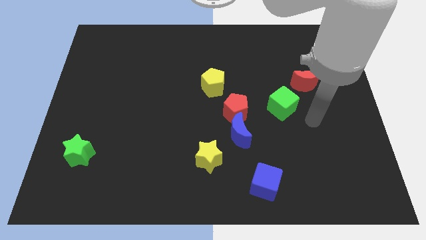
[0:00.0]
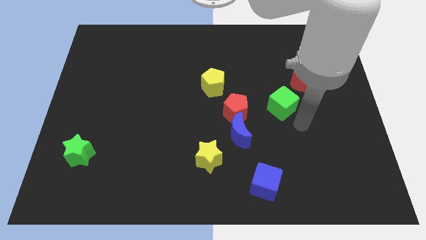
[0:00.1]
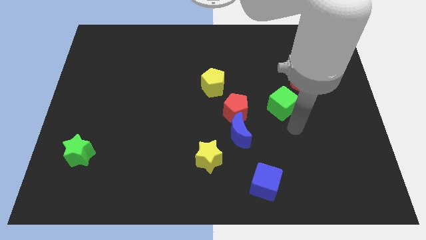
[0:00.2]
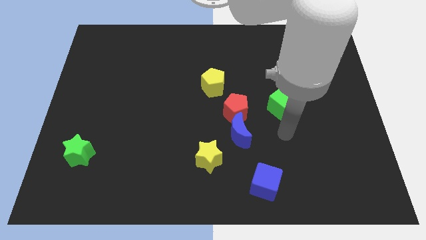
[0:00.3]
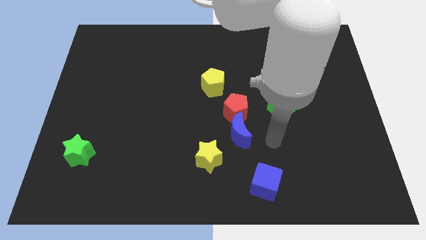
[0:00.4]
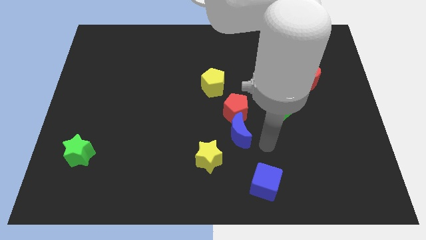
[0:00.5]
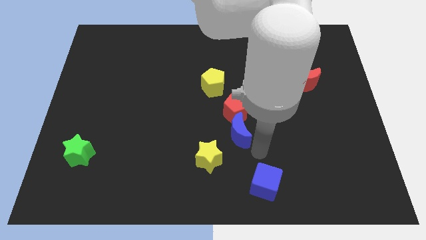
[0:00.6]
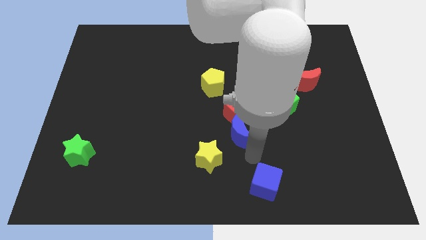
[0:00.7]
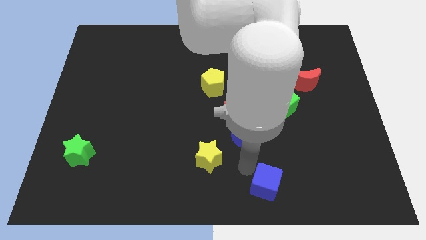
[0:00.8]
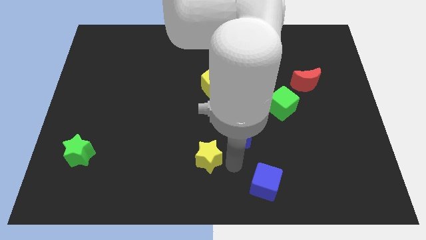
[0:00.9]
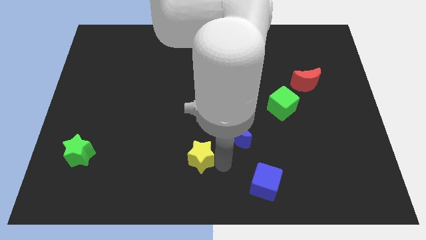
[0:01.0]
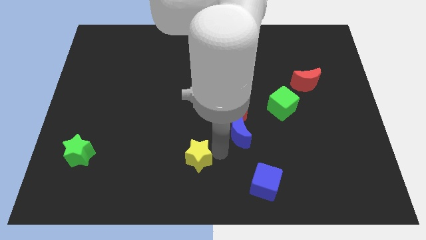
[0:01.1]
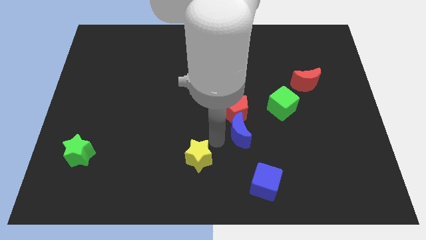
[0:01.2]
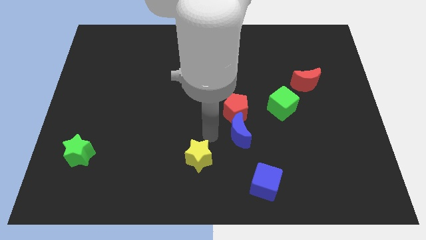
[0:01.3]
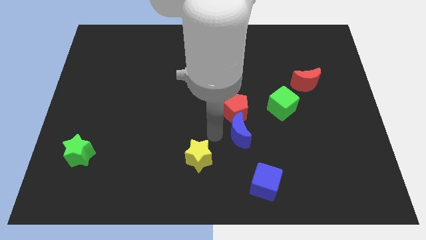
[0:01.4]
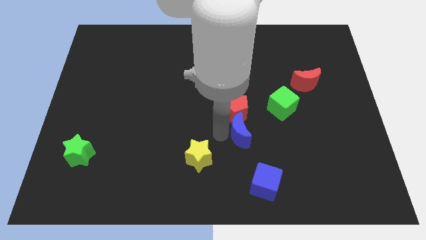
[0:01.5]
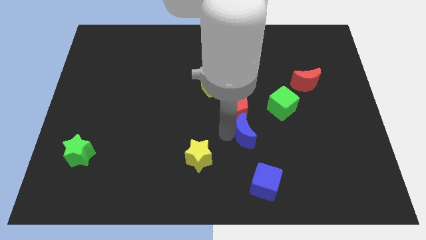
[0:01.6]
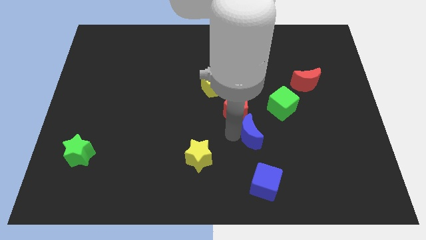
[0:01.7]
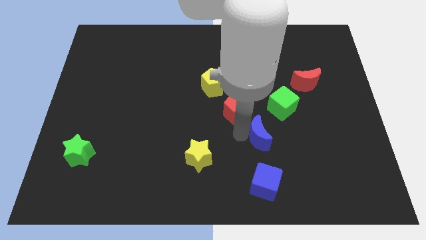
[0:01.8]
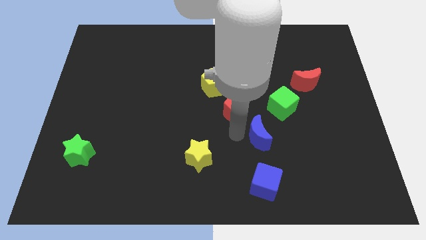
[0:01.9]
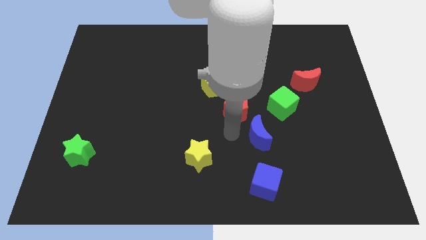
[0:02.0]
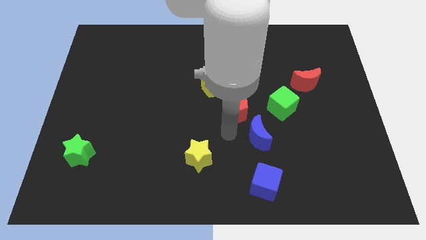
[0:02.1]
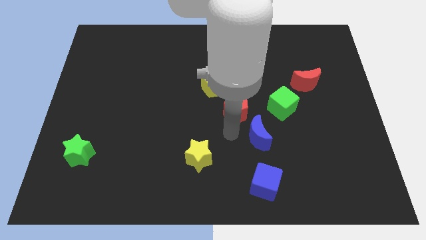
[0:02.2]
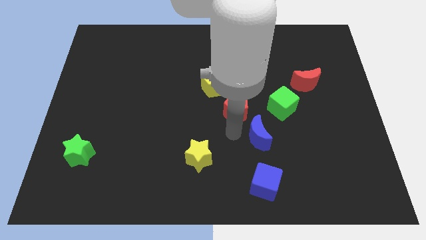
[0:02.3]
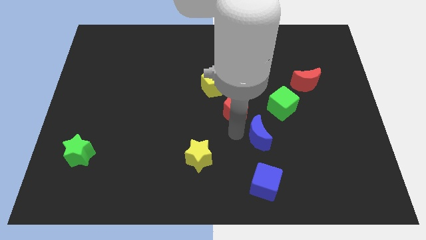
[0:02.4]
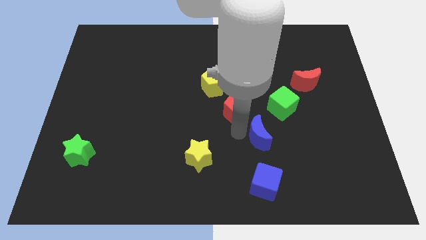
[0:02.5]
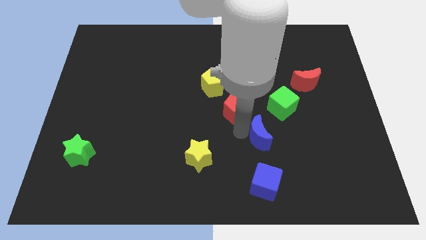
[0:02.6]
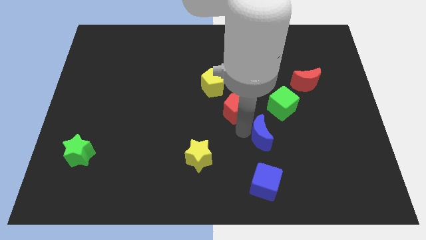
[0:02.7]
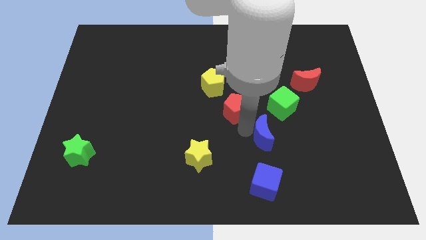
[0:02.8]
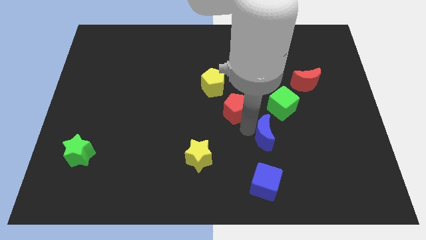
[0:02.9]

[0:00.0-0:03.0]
separate the blue moon from the red pentagon and yellow star

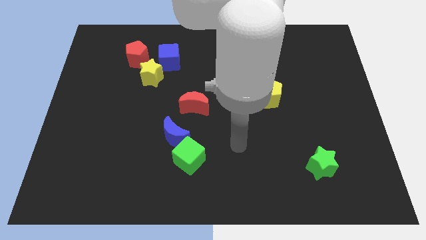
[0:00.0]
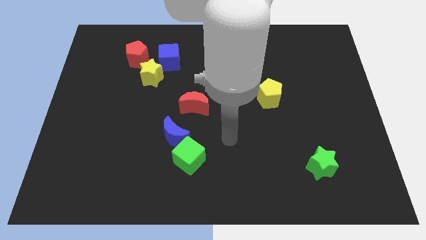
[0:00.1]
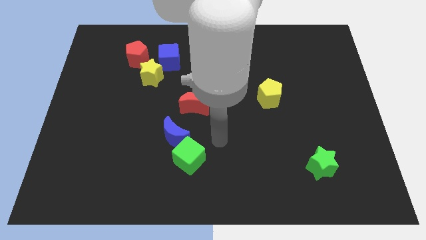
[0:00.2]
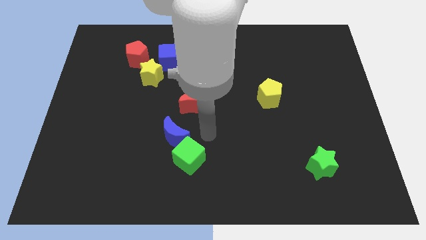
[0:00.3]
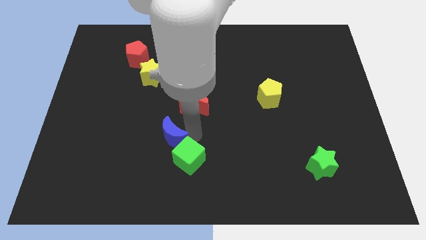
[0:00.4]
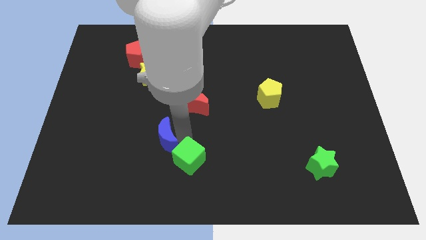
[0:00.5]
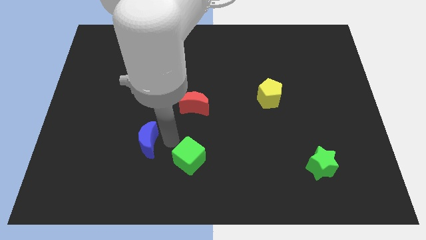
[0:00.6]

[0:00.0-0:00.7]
move the green cube away from the blue moon

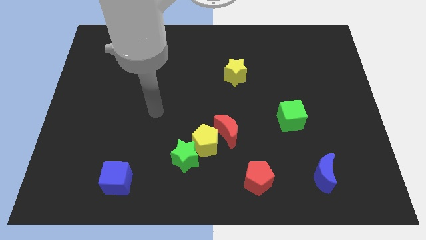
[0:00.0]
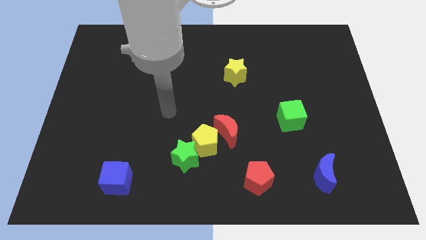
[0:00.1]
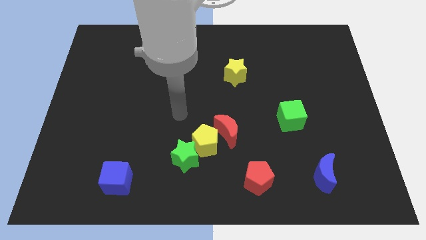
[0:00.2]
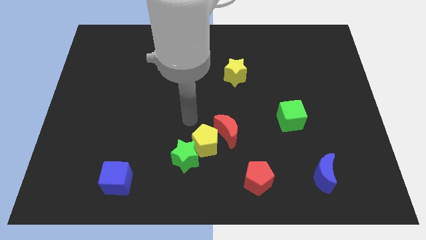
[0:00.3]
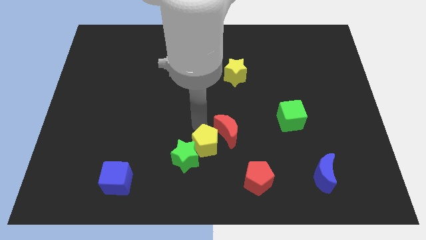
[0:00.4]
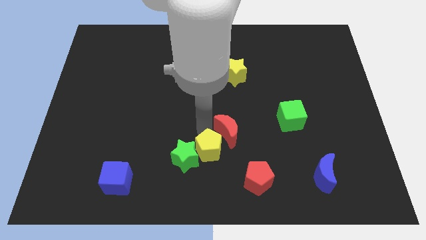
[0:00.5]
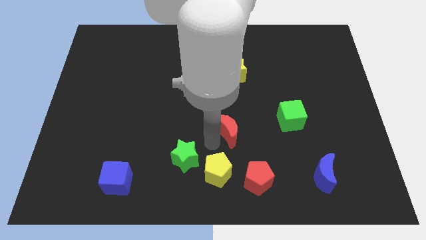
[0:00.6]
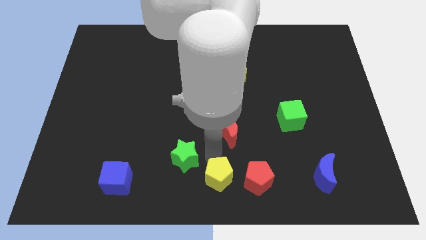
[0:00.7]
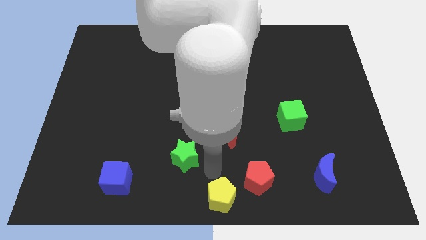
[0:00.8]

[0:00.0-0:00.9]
separate the green star from the yellow pentagon

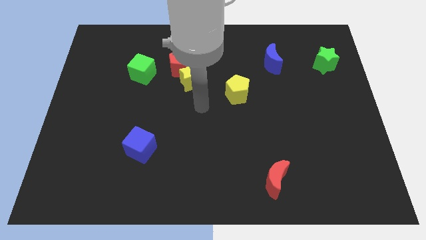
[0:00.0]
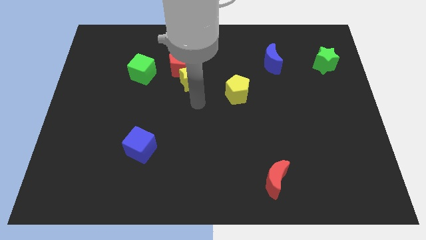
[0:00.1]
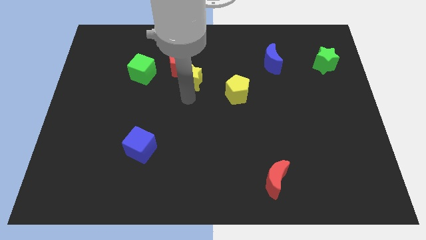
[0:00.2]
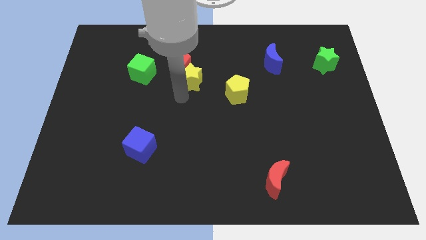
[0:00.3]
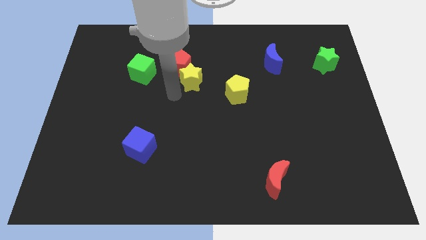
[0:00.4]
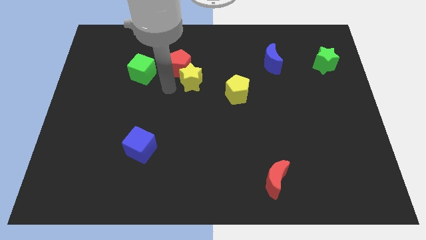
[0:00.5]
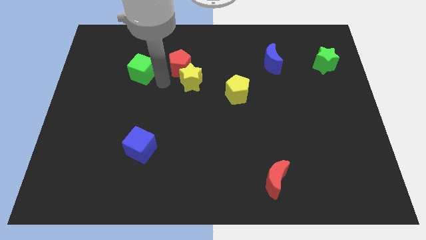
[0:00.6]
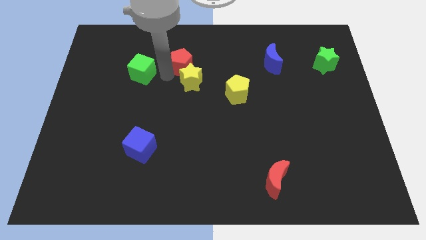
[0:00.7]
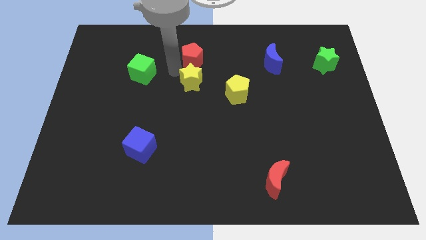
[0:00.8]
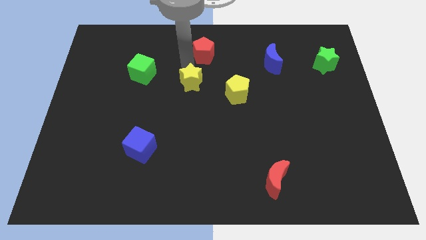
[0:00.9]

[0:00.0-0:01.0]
move the yellow star away from the red pentagon

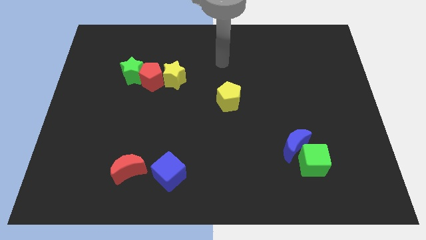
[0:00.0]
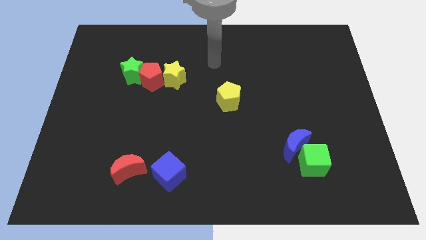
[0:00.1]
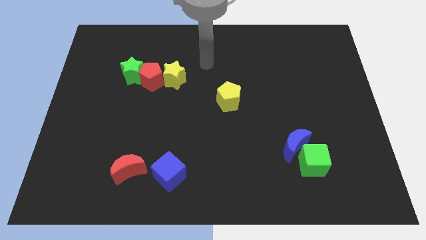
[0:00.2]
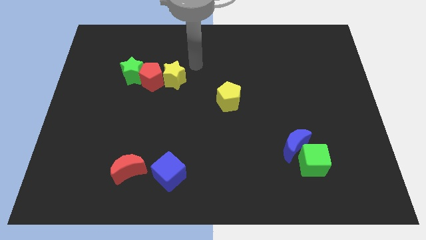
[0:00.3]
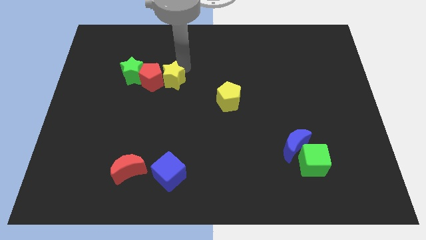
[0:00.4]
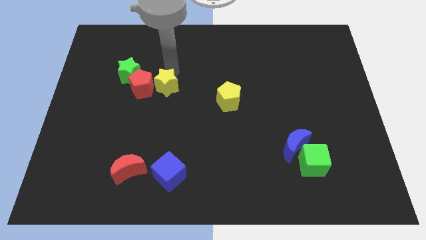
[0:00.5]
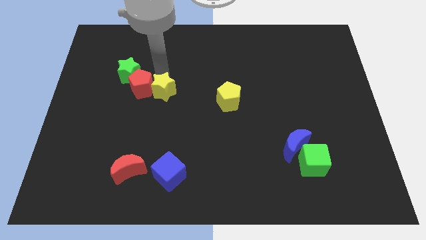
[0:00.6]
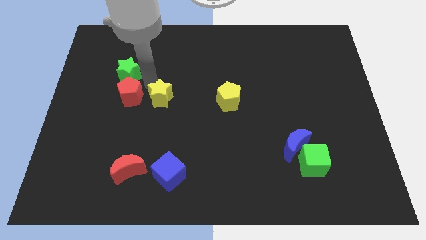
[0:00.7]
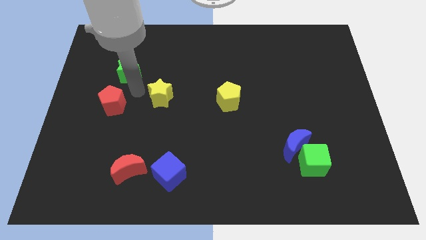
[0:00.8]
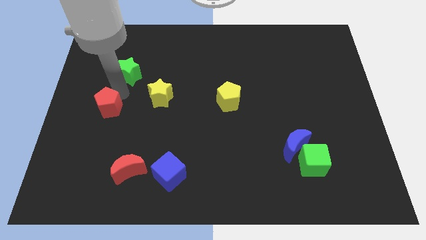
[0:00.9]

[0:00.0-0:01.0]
pull the green star apart from the red pentagon

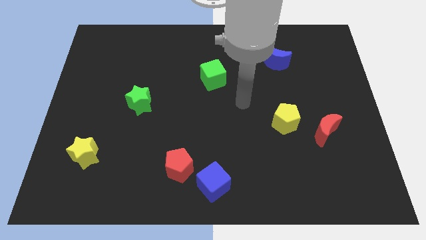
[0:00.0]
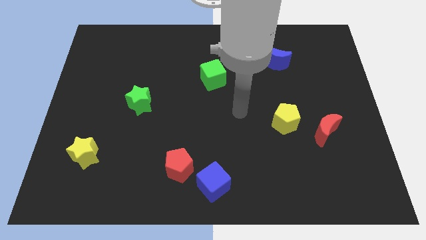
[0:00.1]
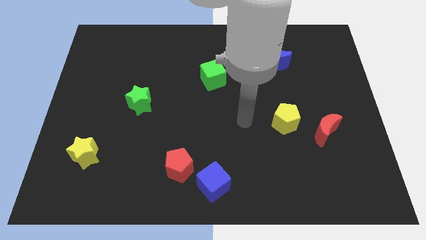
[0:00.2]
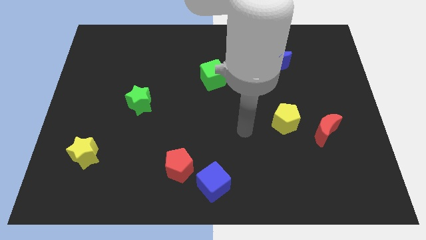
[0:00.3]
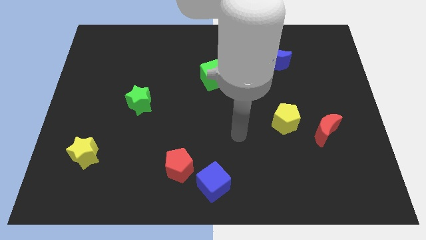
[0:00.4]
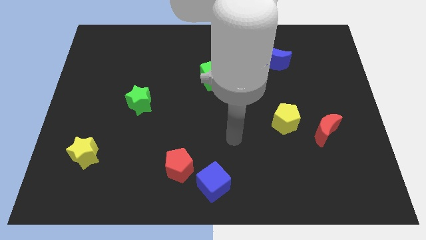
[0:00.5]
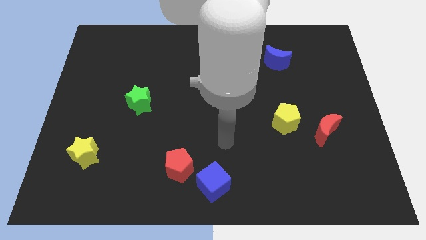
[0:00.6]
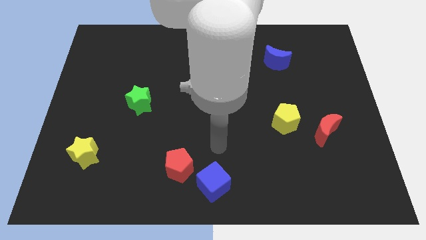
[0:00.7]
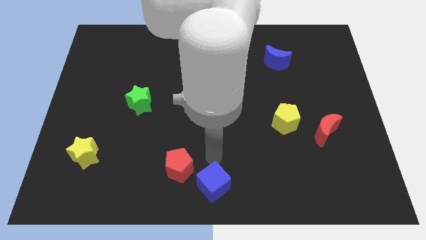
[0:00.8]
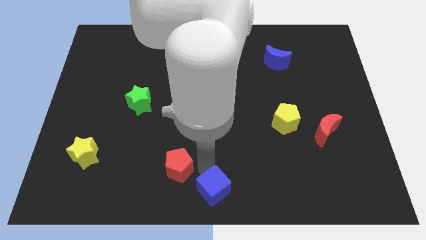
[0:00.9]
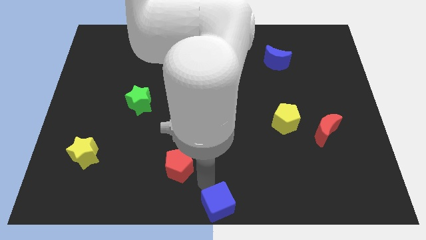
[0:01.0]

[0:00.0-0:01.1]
move the red pentagon away from the blue cube

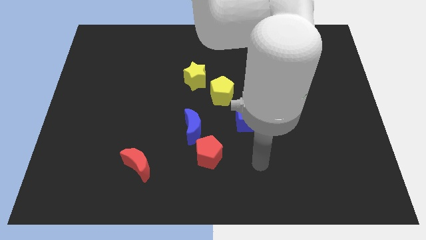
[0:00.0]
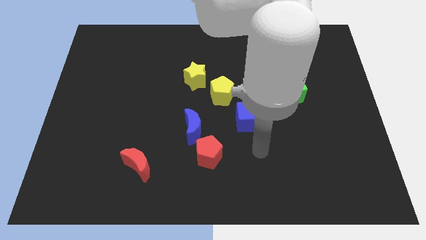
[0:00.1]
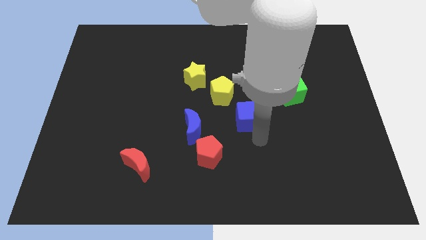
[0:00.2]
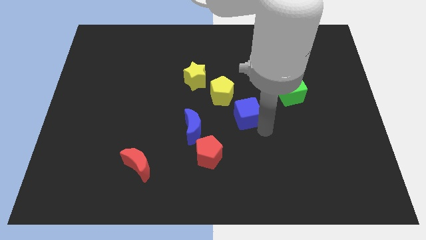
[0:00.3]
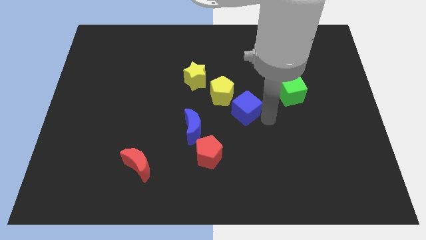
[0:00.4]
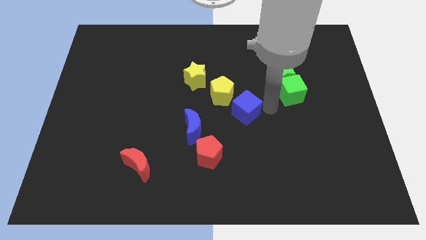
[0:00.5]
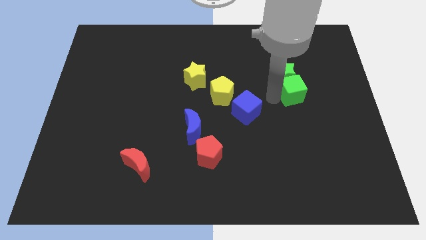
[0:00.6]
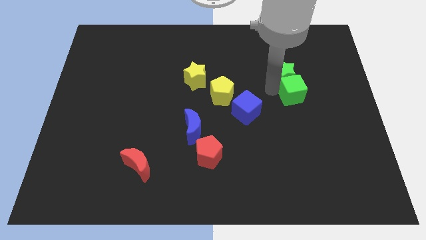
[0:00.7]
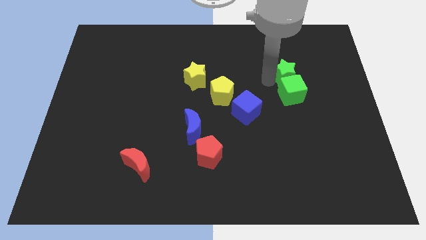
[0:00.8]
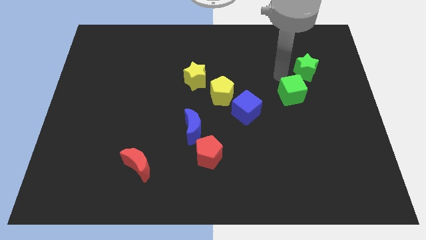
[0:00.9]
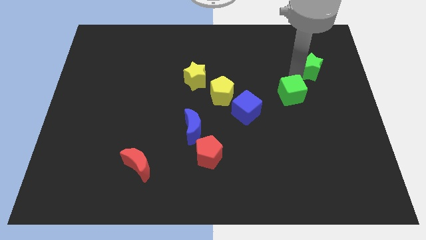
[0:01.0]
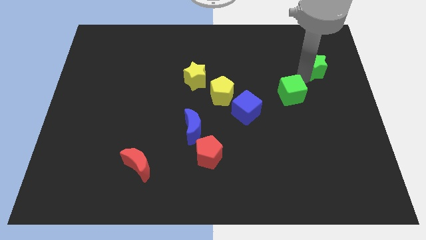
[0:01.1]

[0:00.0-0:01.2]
pull the green cube apart from the green star

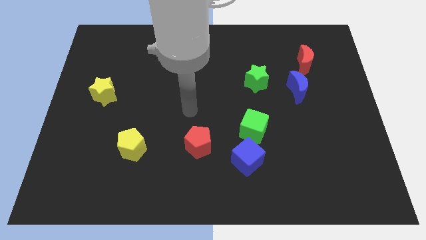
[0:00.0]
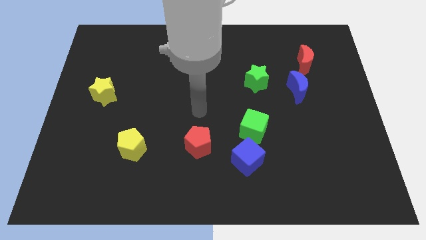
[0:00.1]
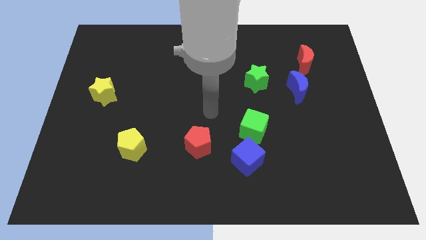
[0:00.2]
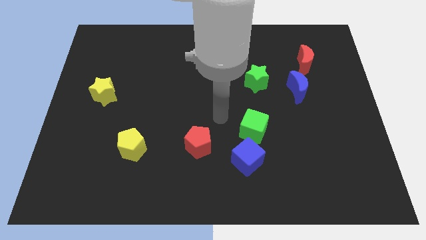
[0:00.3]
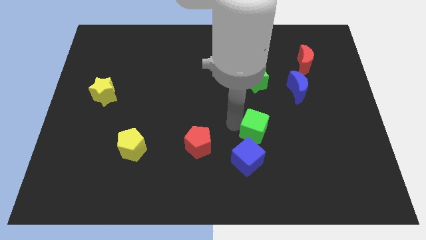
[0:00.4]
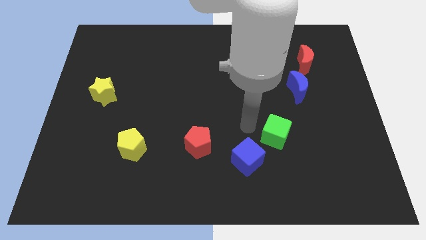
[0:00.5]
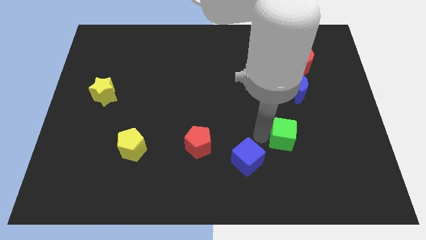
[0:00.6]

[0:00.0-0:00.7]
separate the blue cube from the green cube
